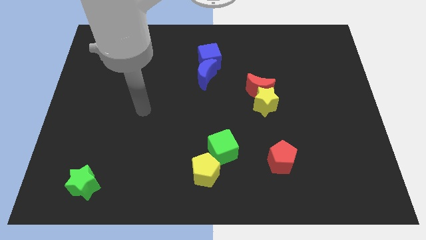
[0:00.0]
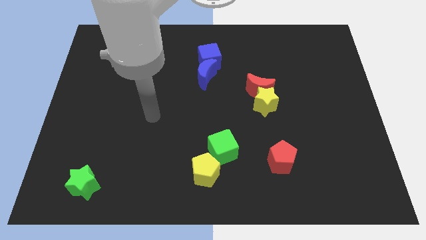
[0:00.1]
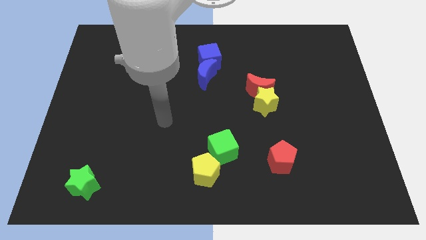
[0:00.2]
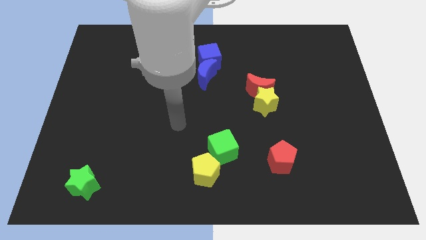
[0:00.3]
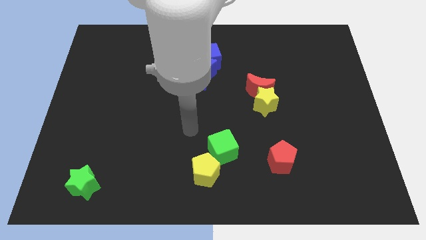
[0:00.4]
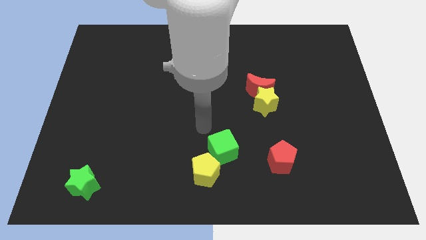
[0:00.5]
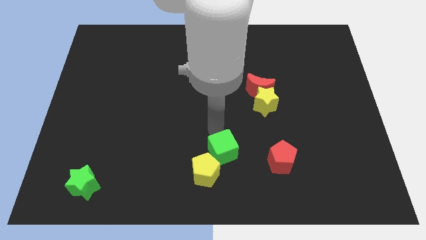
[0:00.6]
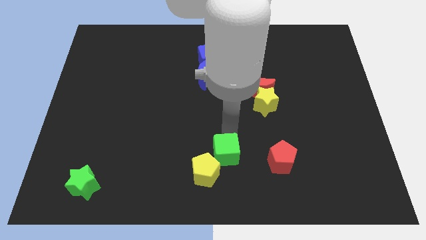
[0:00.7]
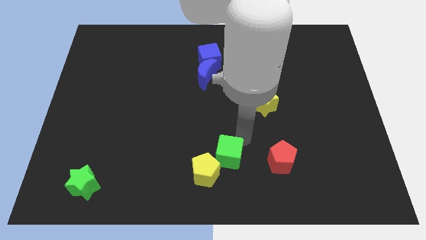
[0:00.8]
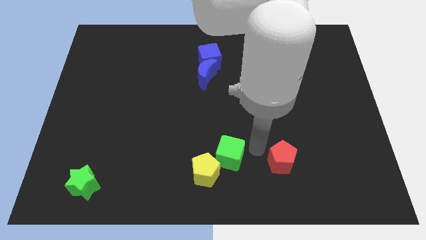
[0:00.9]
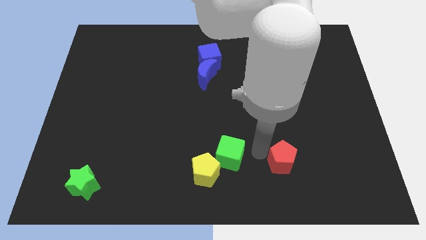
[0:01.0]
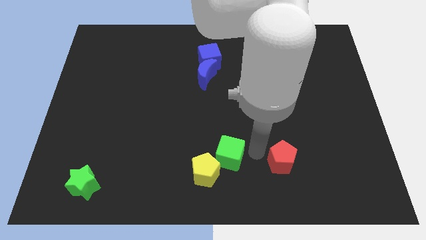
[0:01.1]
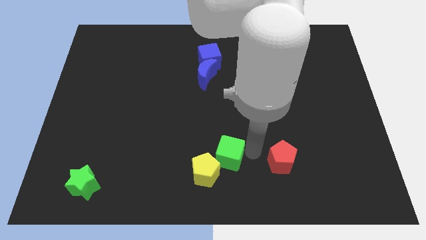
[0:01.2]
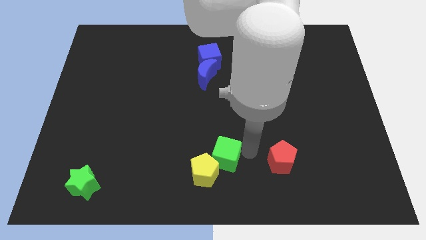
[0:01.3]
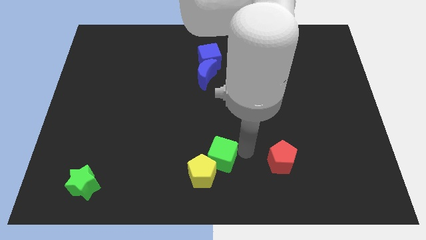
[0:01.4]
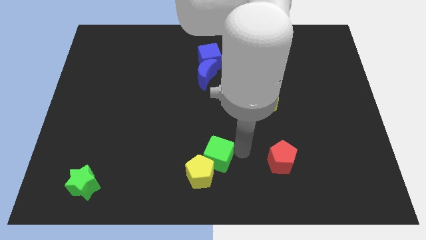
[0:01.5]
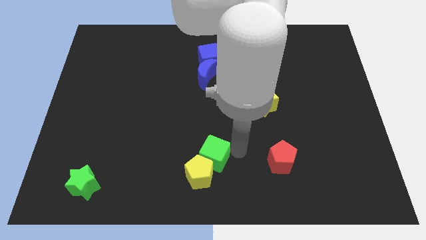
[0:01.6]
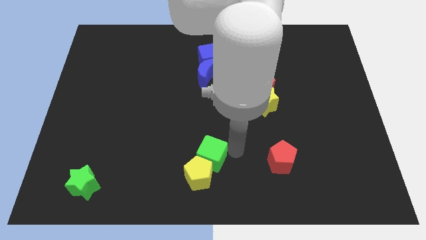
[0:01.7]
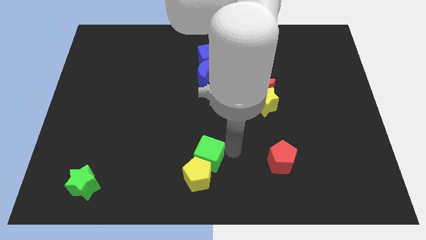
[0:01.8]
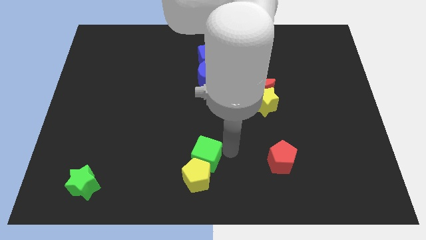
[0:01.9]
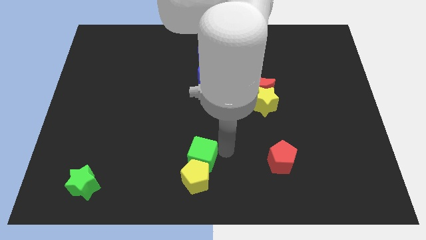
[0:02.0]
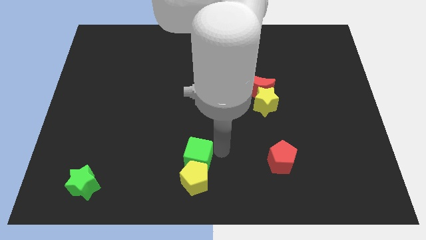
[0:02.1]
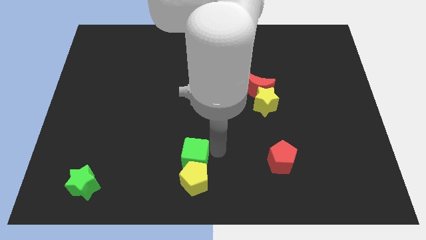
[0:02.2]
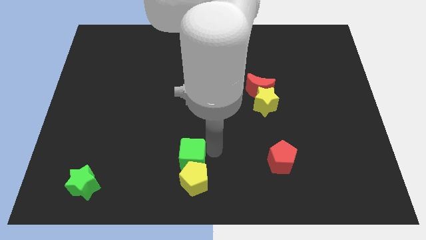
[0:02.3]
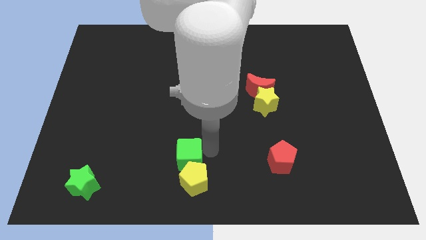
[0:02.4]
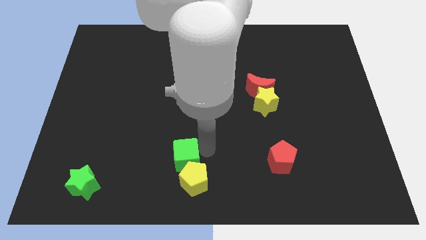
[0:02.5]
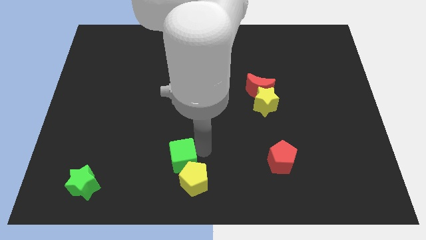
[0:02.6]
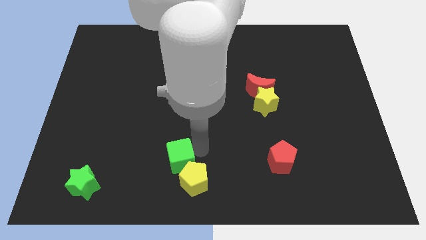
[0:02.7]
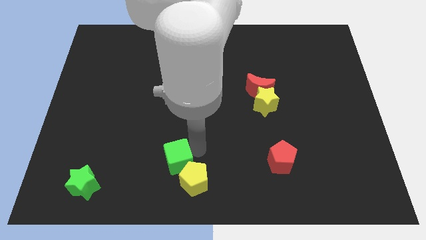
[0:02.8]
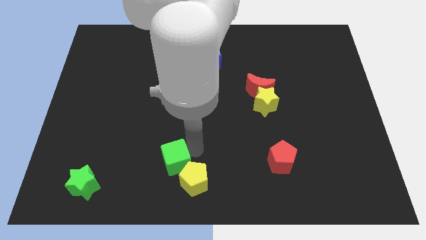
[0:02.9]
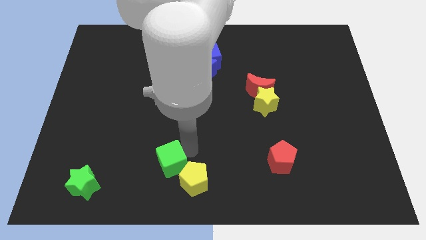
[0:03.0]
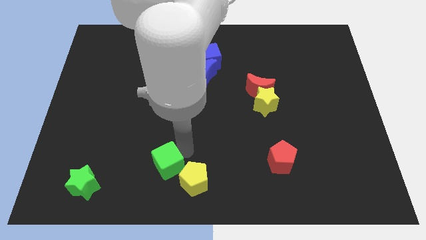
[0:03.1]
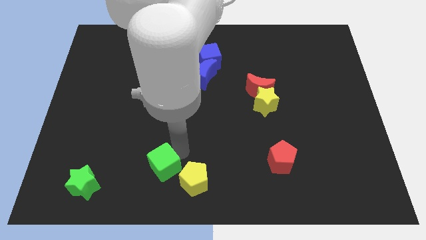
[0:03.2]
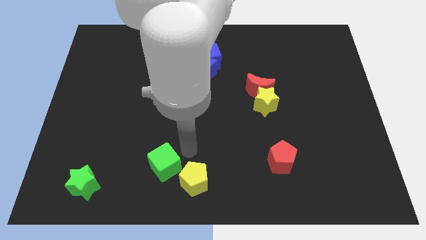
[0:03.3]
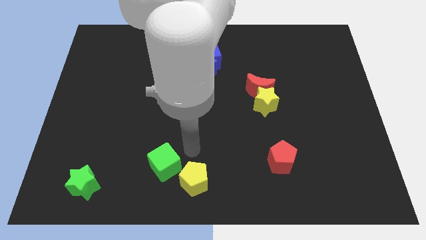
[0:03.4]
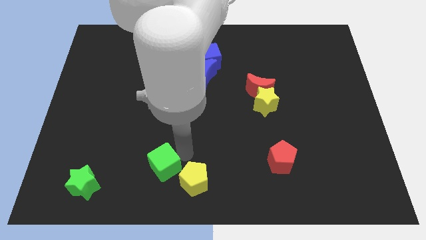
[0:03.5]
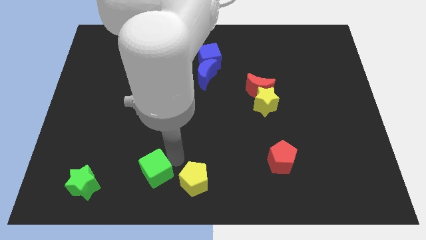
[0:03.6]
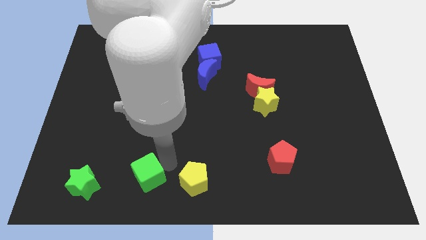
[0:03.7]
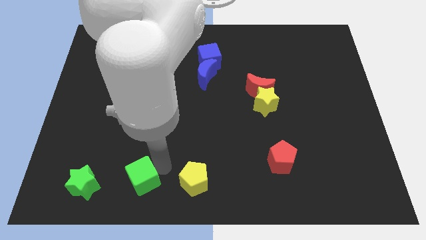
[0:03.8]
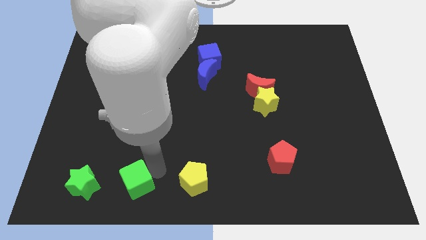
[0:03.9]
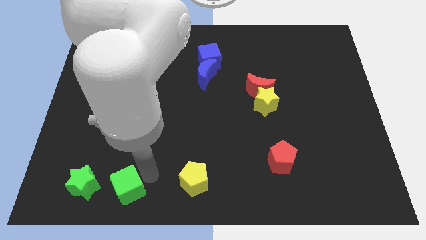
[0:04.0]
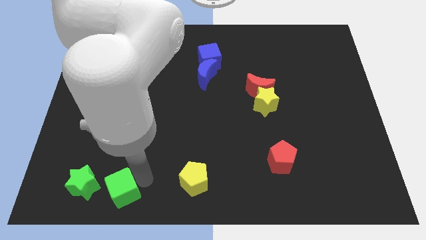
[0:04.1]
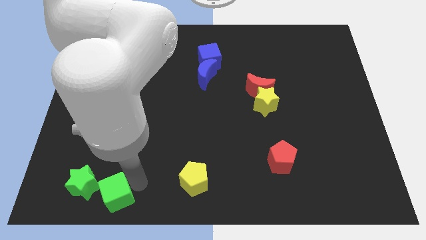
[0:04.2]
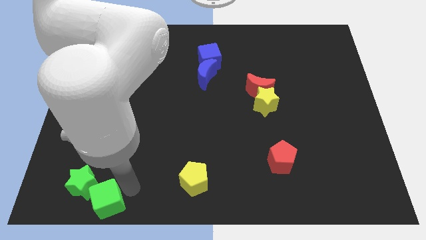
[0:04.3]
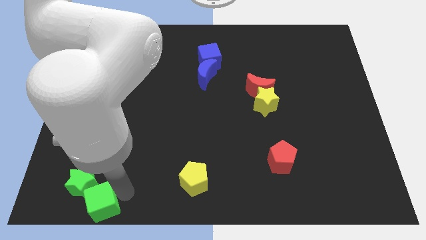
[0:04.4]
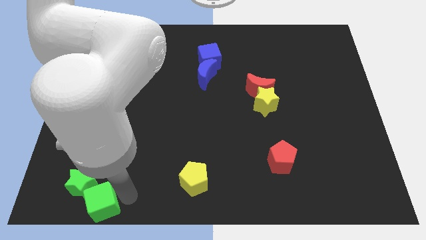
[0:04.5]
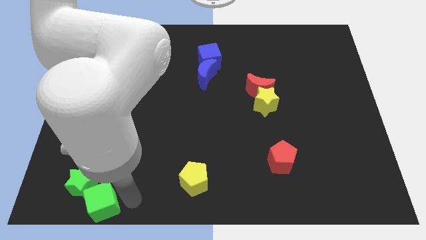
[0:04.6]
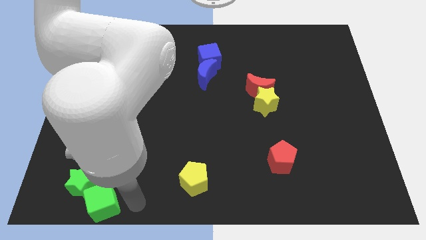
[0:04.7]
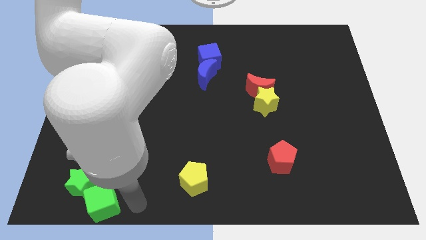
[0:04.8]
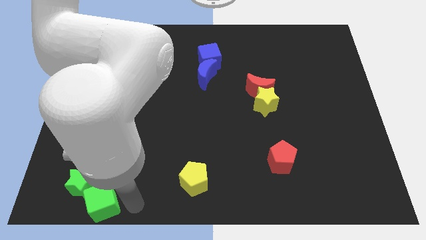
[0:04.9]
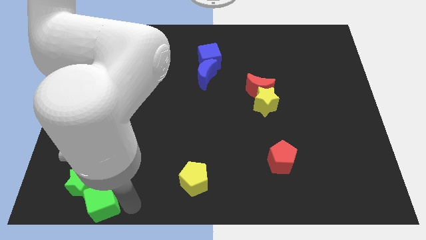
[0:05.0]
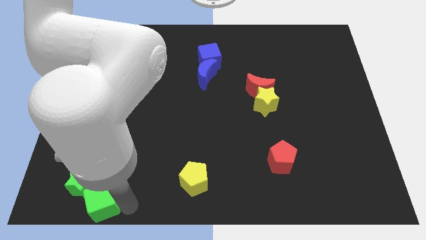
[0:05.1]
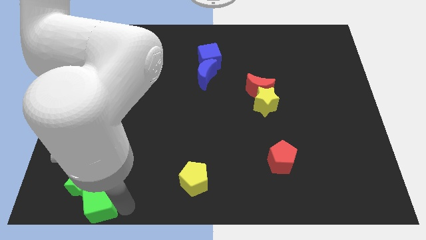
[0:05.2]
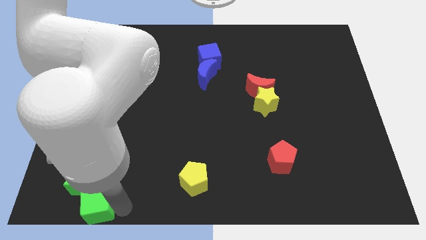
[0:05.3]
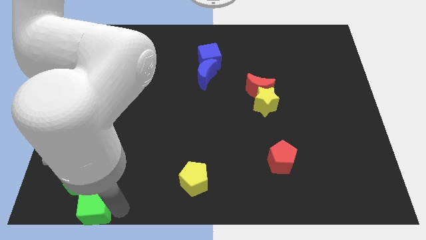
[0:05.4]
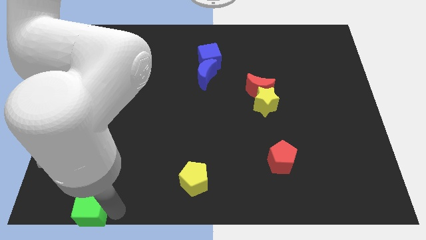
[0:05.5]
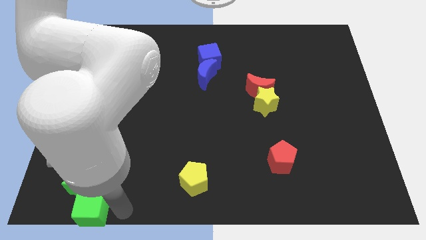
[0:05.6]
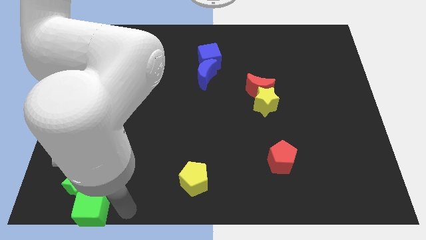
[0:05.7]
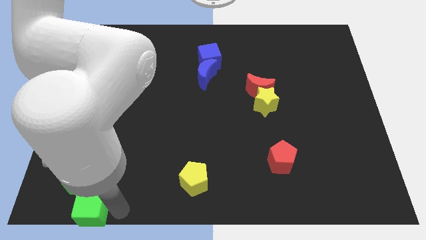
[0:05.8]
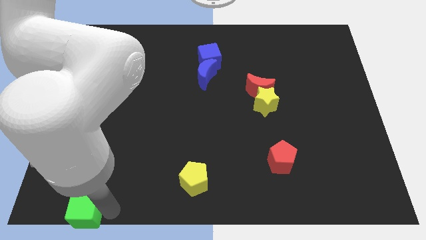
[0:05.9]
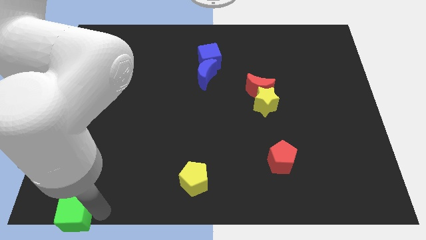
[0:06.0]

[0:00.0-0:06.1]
move the green cube to the bottom left corner

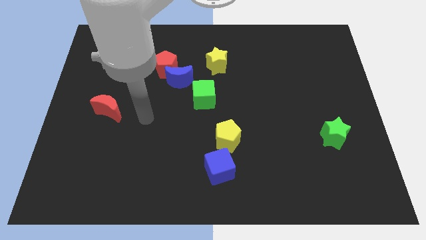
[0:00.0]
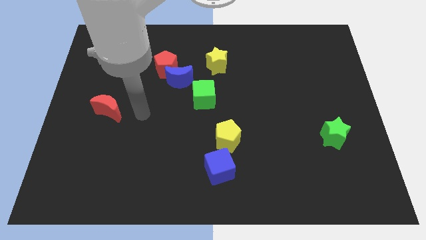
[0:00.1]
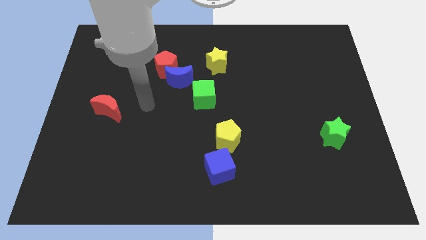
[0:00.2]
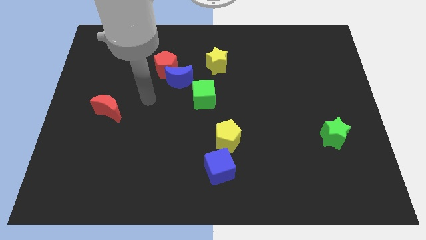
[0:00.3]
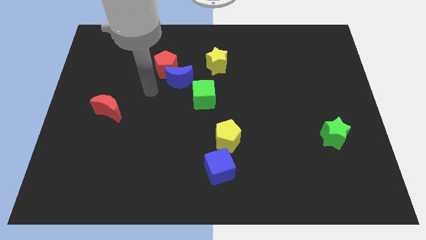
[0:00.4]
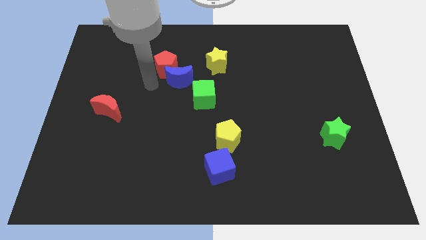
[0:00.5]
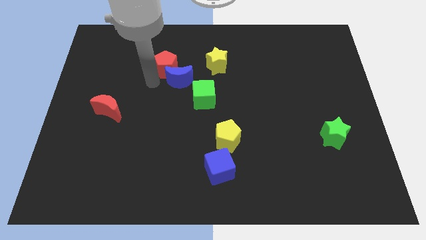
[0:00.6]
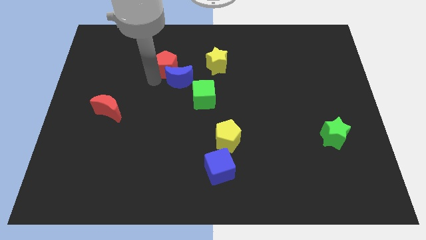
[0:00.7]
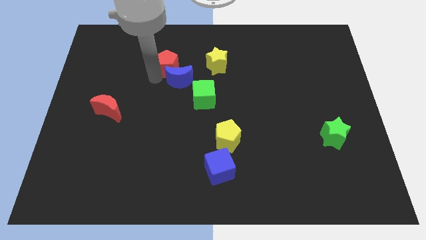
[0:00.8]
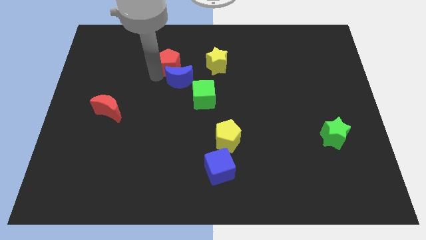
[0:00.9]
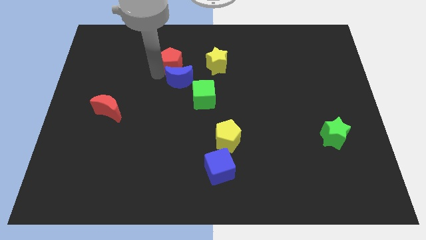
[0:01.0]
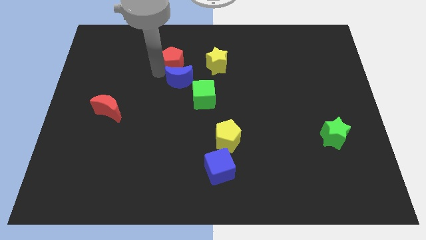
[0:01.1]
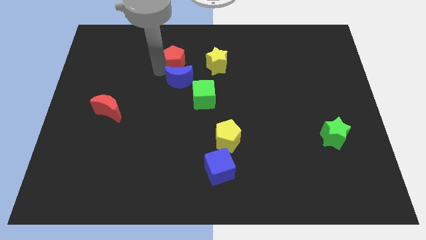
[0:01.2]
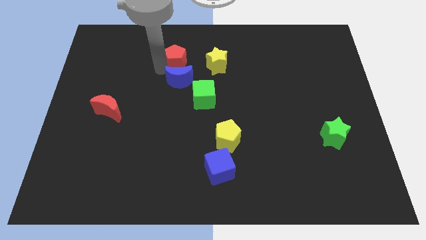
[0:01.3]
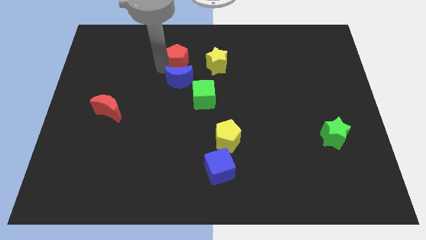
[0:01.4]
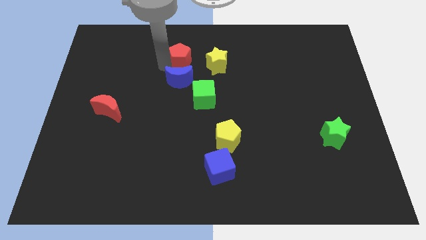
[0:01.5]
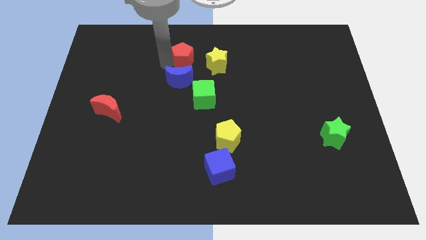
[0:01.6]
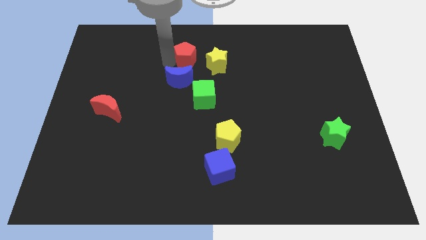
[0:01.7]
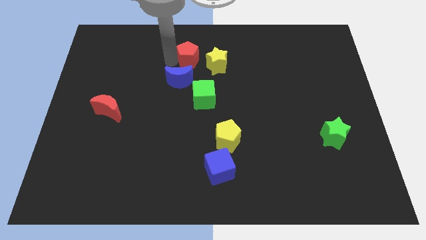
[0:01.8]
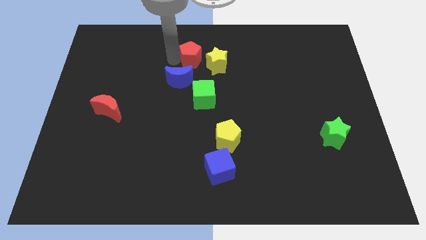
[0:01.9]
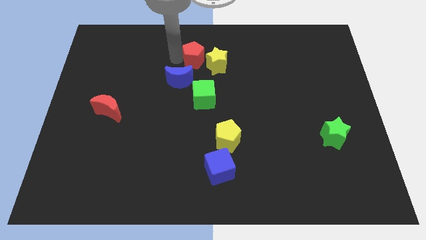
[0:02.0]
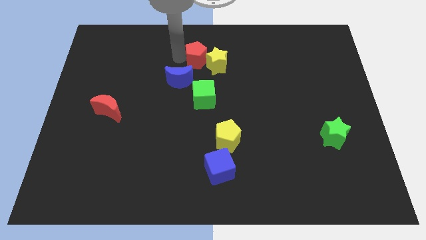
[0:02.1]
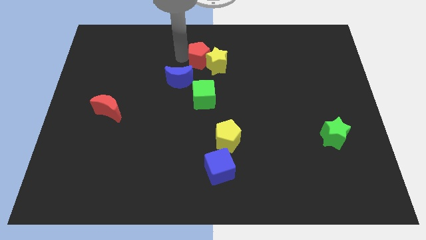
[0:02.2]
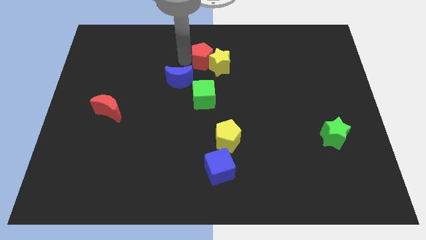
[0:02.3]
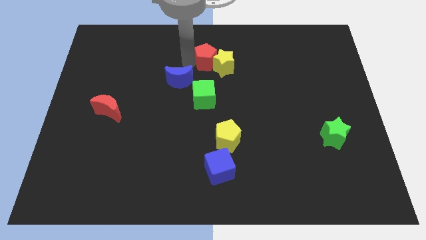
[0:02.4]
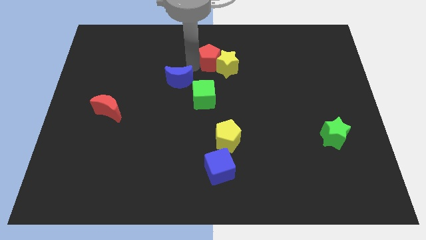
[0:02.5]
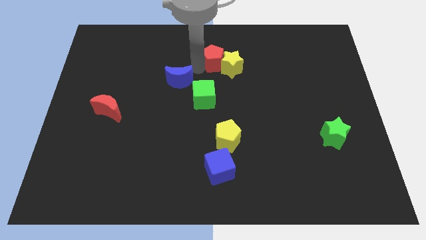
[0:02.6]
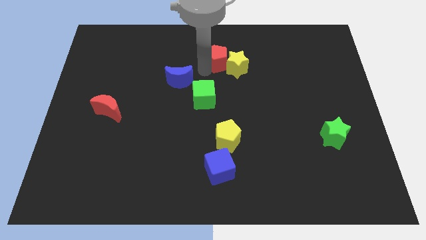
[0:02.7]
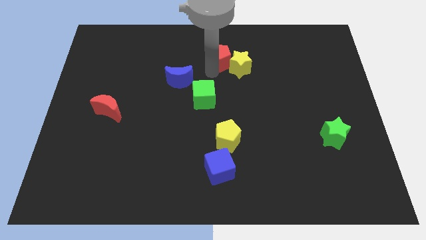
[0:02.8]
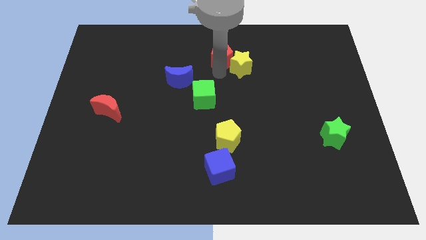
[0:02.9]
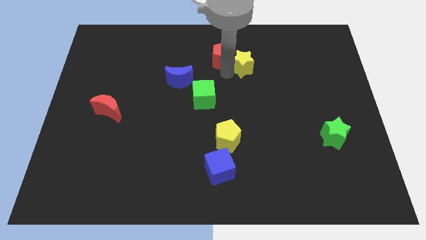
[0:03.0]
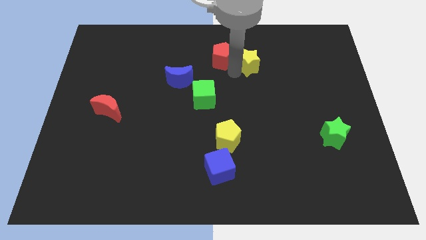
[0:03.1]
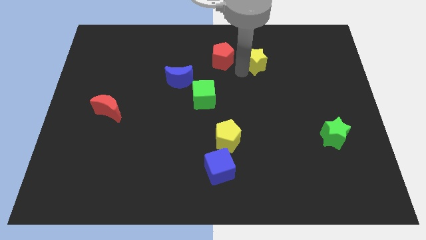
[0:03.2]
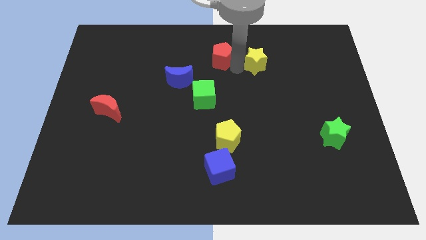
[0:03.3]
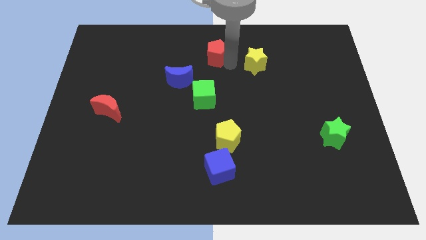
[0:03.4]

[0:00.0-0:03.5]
push the red pentagon to the towards your base
